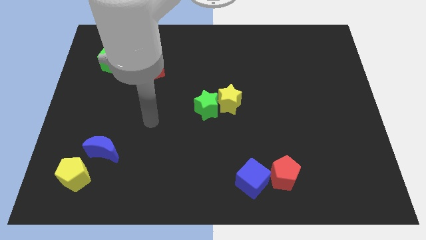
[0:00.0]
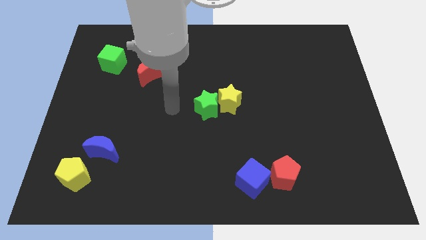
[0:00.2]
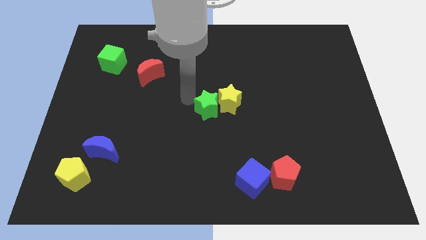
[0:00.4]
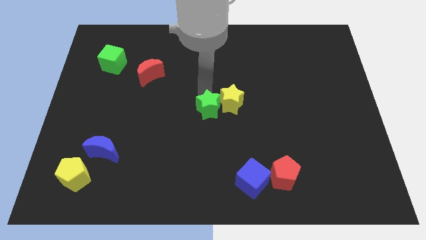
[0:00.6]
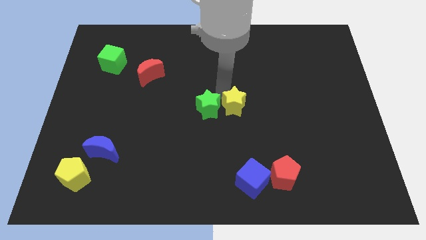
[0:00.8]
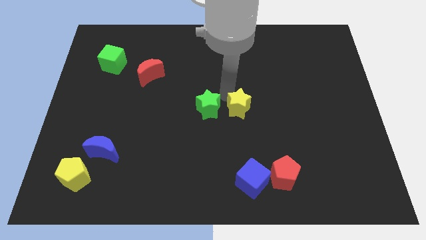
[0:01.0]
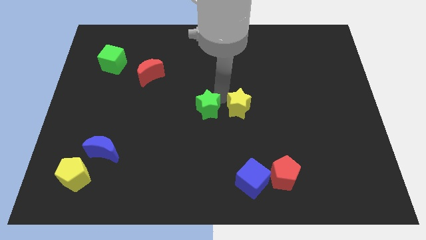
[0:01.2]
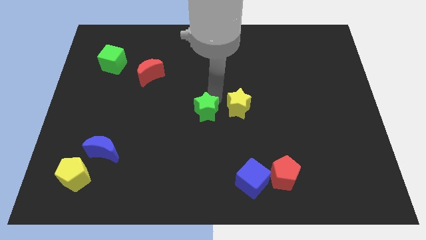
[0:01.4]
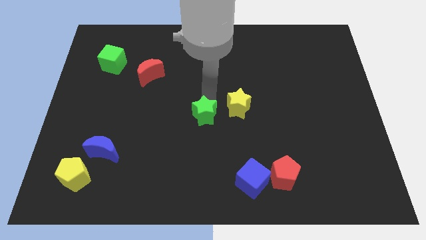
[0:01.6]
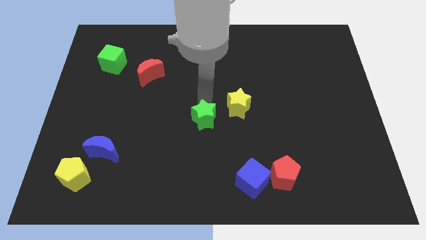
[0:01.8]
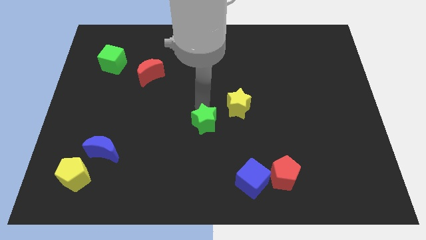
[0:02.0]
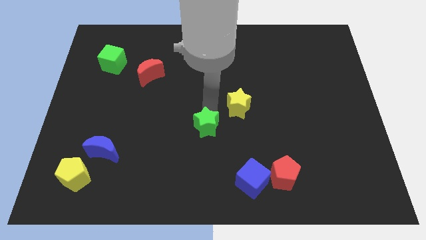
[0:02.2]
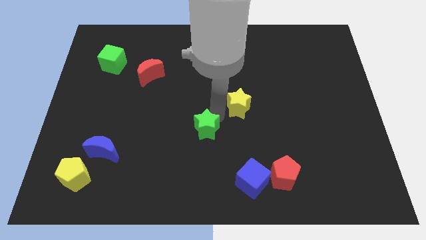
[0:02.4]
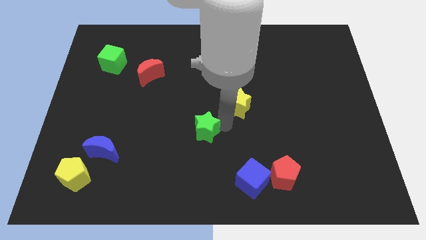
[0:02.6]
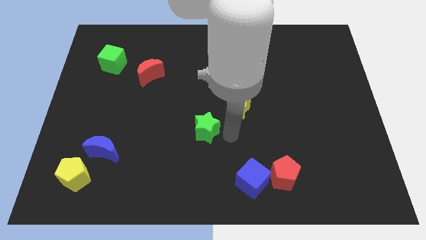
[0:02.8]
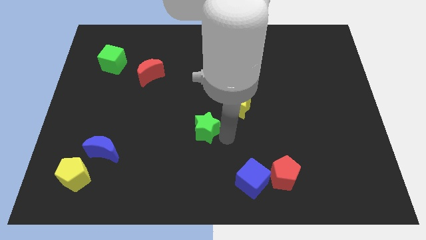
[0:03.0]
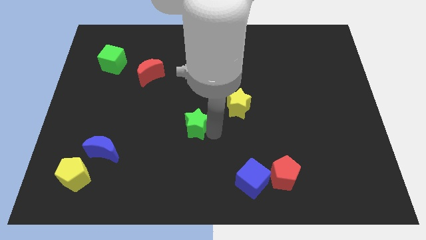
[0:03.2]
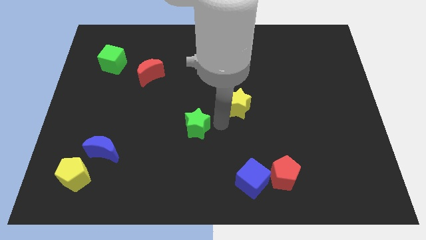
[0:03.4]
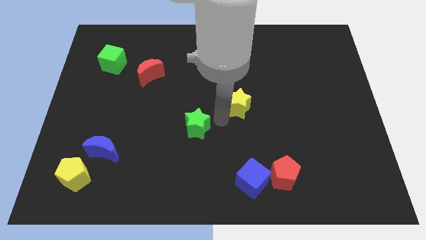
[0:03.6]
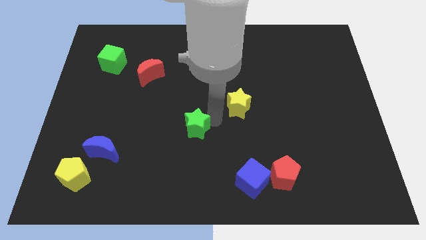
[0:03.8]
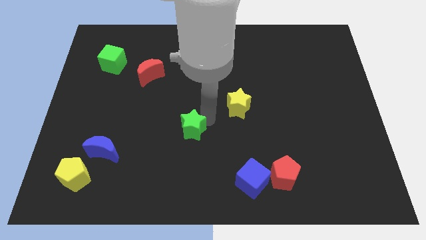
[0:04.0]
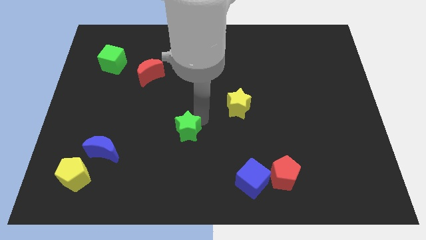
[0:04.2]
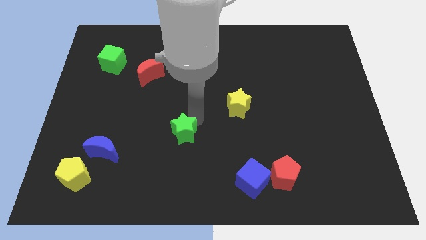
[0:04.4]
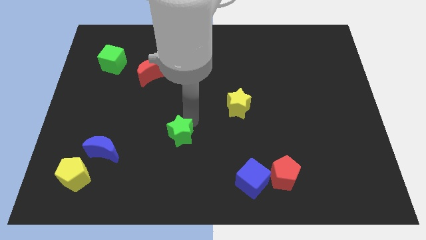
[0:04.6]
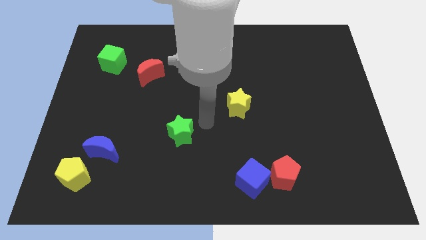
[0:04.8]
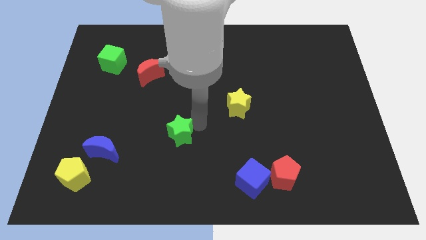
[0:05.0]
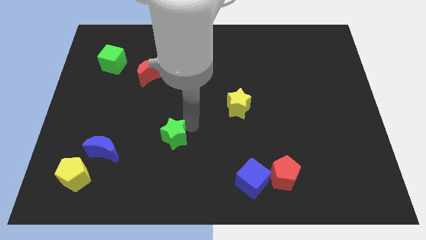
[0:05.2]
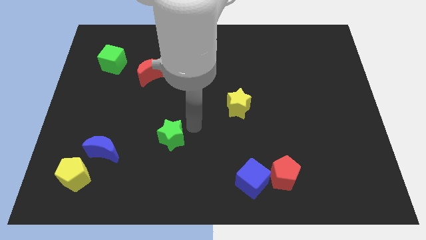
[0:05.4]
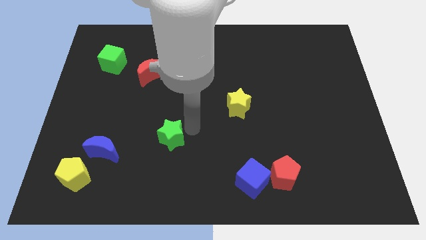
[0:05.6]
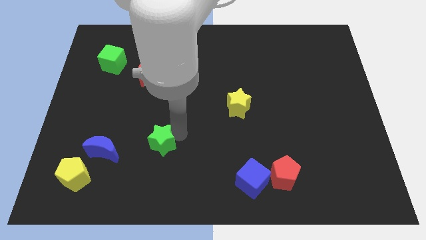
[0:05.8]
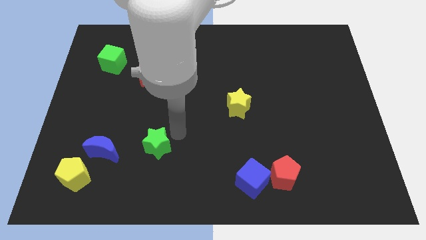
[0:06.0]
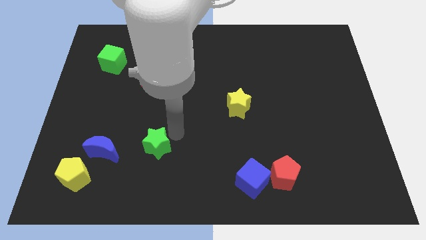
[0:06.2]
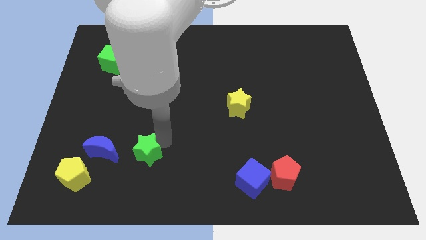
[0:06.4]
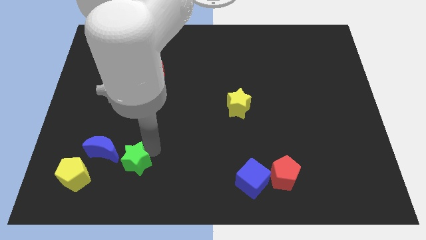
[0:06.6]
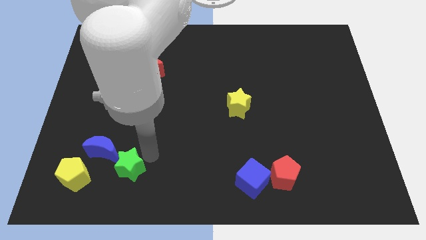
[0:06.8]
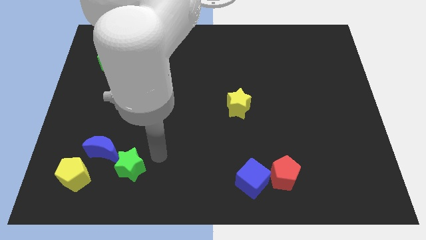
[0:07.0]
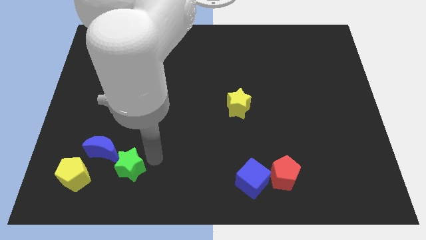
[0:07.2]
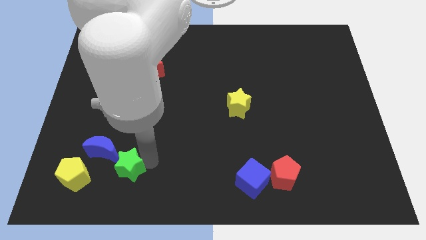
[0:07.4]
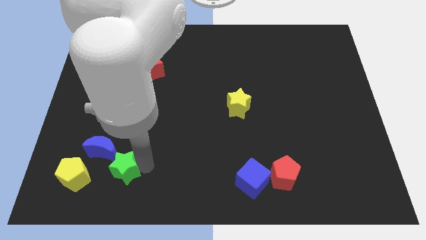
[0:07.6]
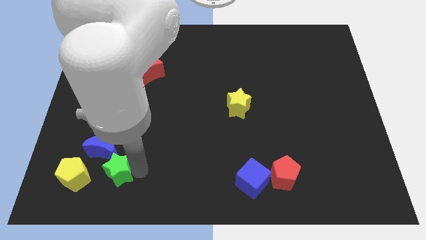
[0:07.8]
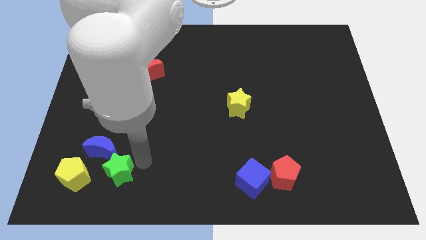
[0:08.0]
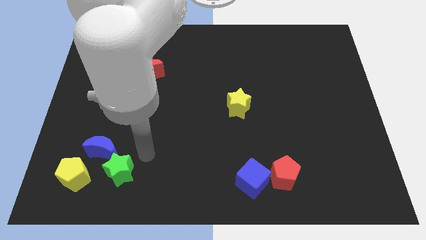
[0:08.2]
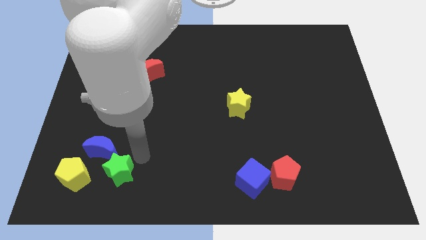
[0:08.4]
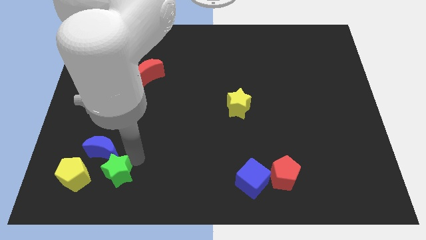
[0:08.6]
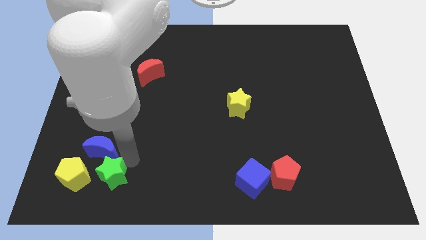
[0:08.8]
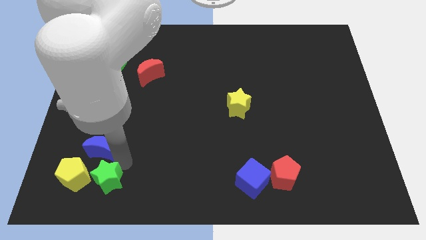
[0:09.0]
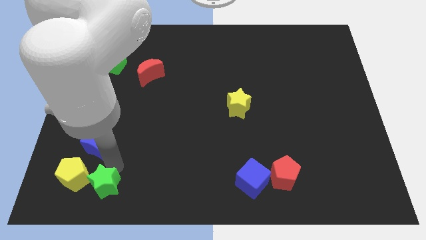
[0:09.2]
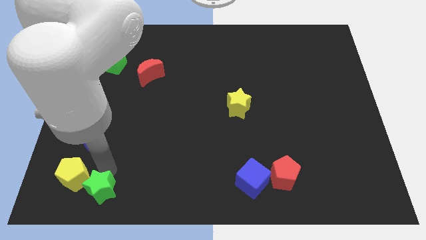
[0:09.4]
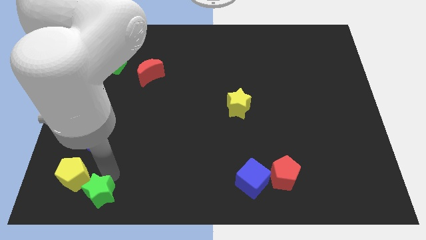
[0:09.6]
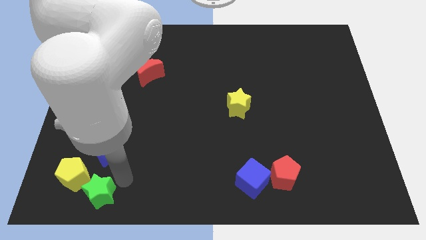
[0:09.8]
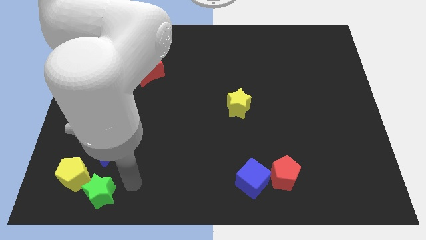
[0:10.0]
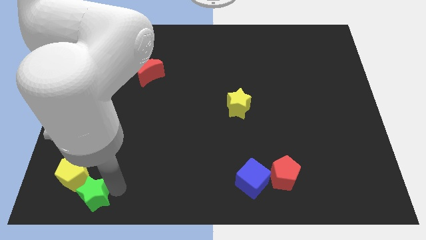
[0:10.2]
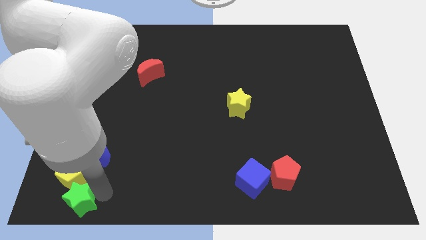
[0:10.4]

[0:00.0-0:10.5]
put the green star to the bottom left corner

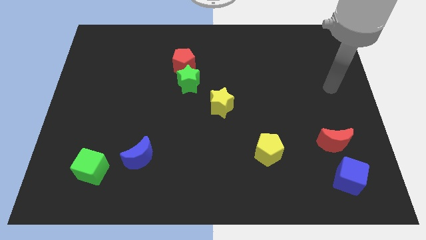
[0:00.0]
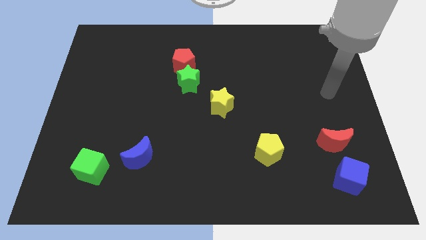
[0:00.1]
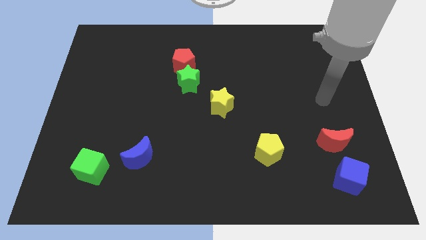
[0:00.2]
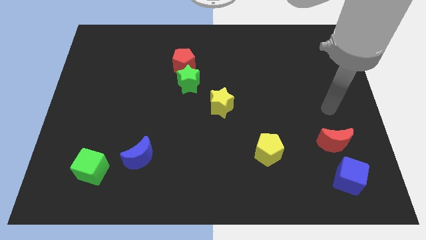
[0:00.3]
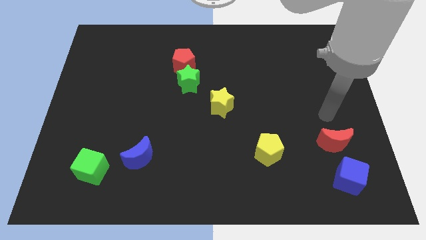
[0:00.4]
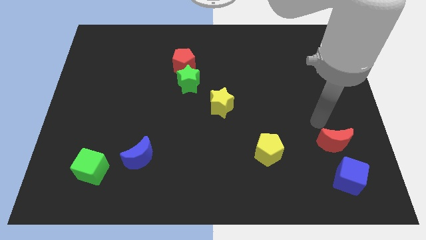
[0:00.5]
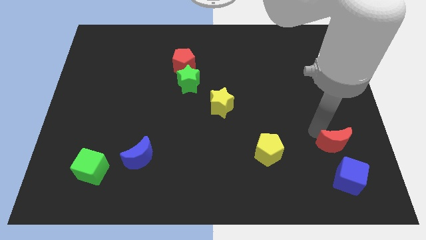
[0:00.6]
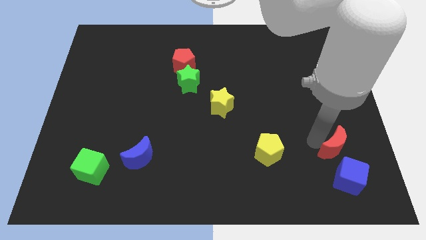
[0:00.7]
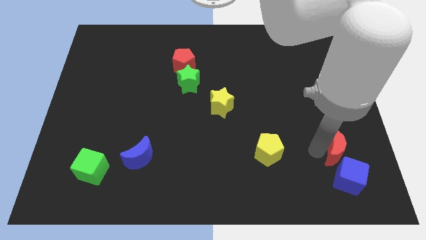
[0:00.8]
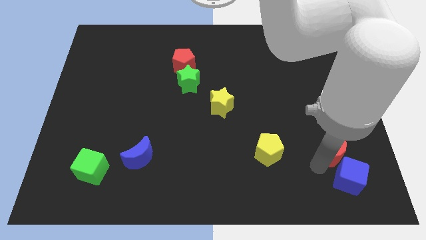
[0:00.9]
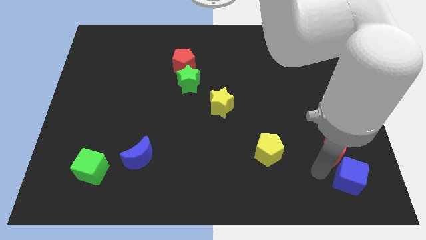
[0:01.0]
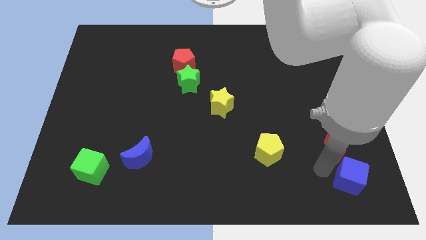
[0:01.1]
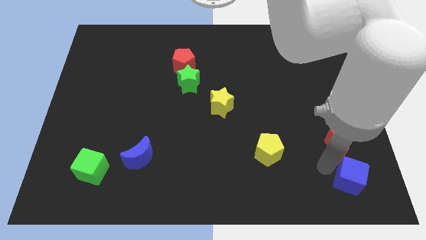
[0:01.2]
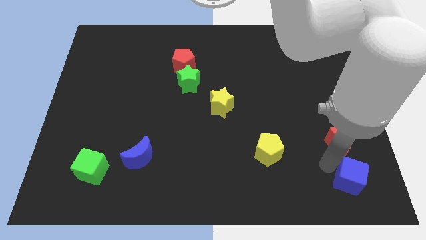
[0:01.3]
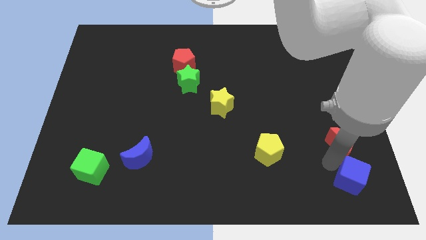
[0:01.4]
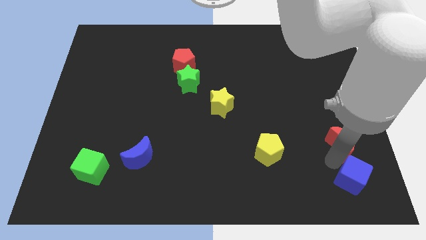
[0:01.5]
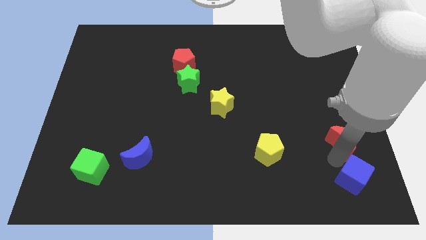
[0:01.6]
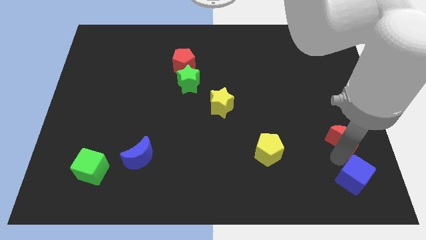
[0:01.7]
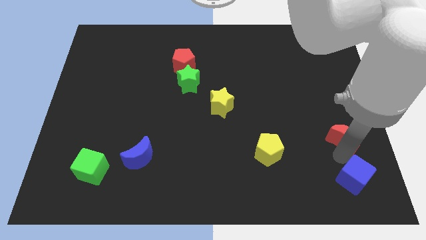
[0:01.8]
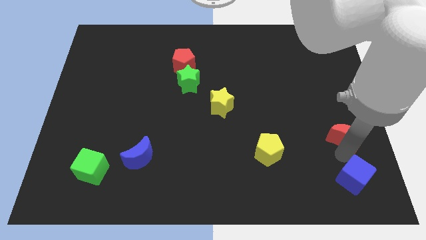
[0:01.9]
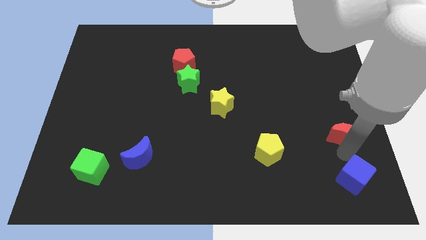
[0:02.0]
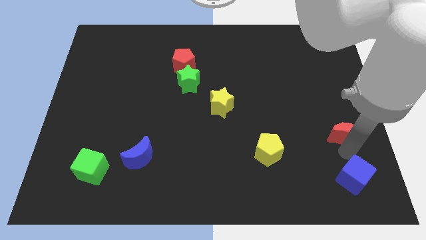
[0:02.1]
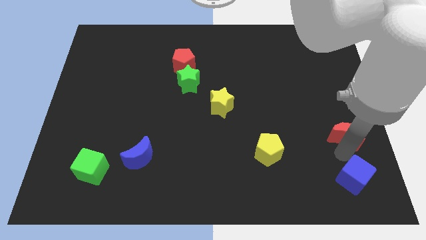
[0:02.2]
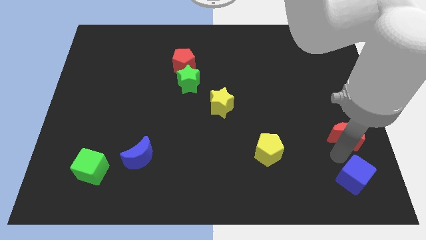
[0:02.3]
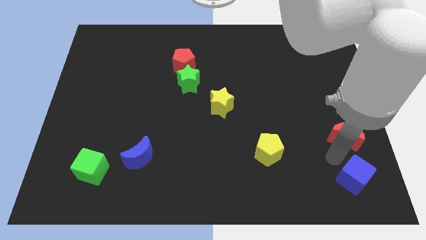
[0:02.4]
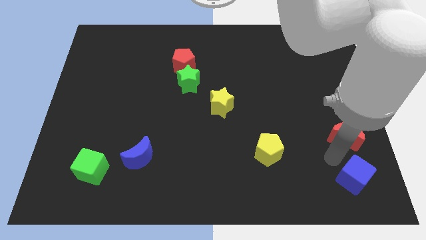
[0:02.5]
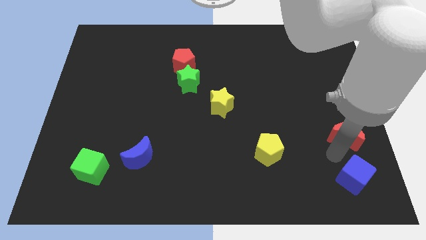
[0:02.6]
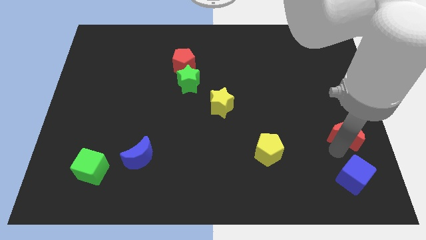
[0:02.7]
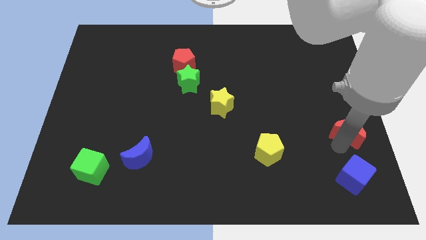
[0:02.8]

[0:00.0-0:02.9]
push the red moon to the right side of the board
